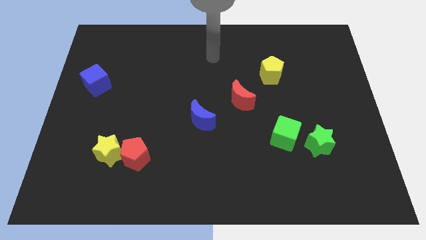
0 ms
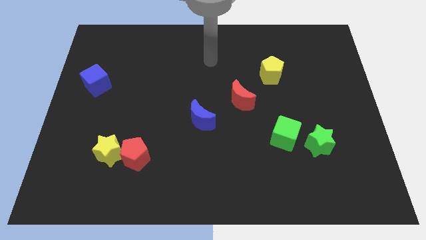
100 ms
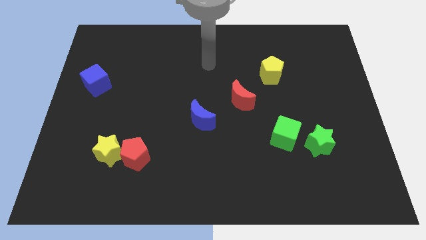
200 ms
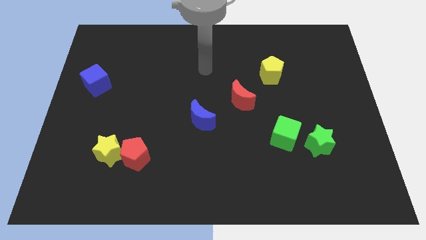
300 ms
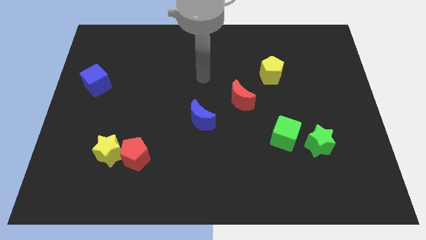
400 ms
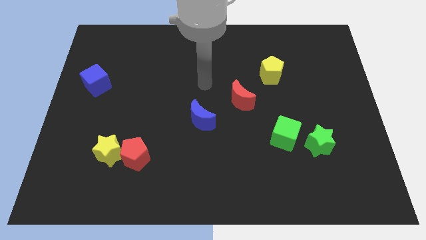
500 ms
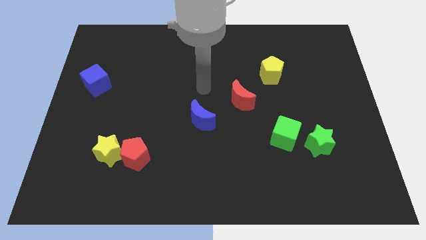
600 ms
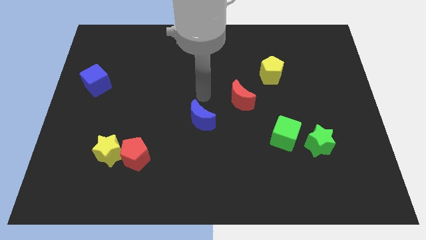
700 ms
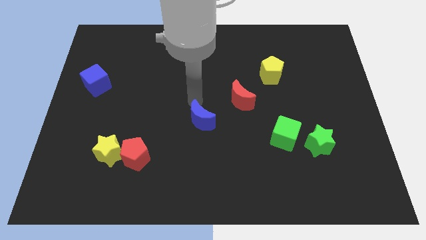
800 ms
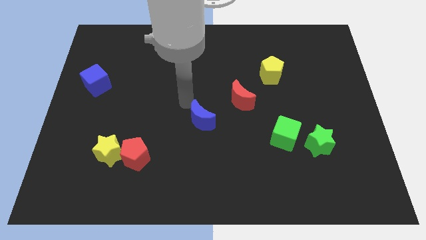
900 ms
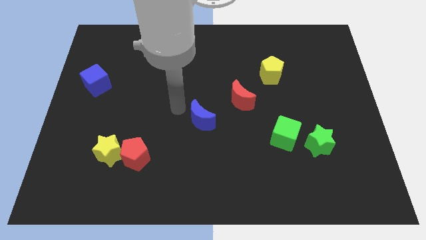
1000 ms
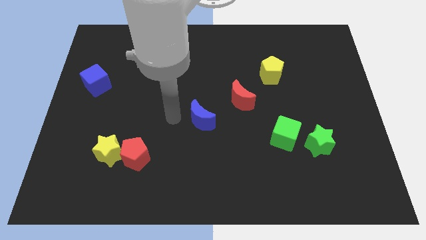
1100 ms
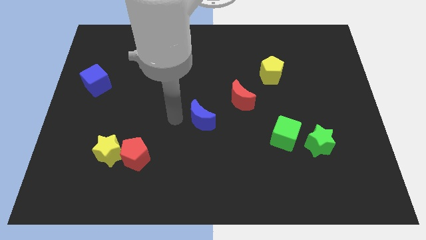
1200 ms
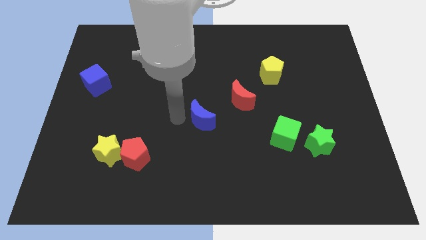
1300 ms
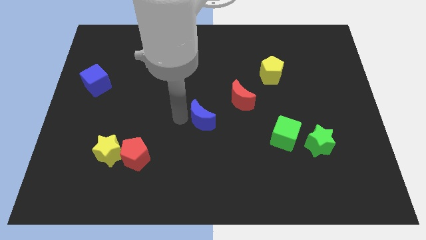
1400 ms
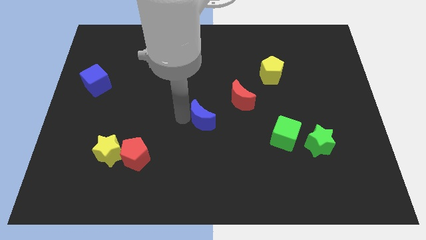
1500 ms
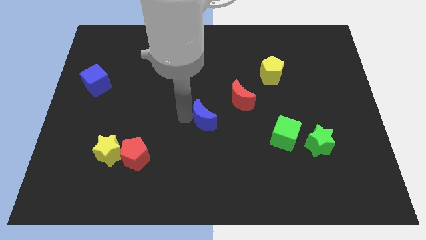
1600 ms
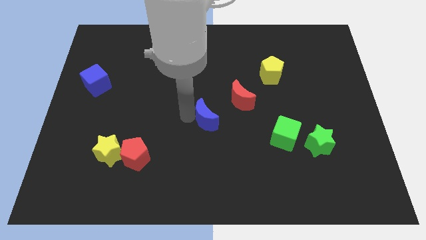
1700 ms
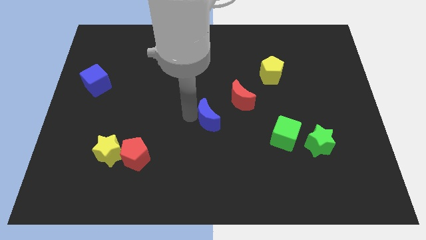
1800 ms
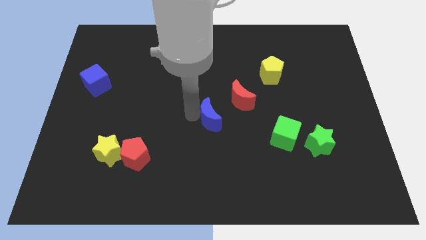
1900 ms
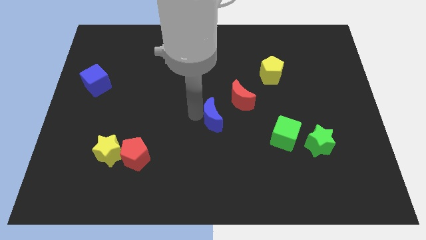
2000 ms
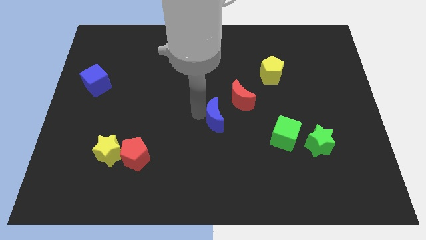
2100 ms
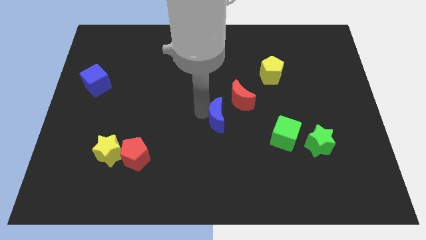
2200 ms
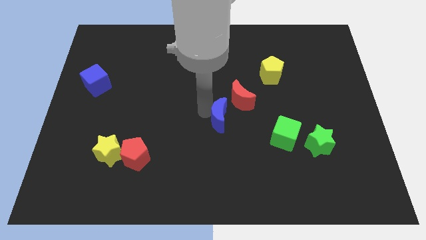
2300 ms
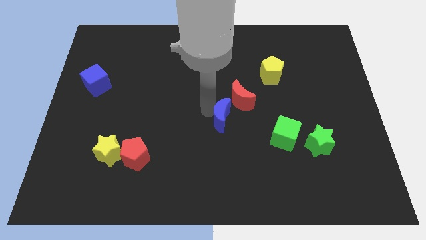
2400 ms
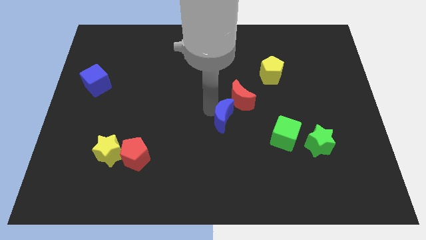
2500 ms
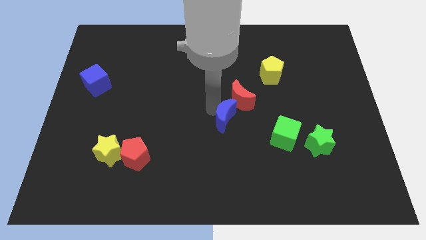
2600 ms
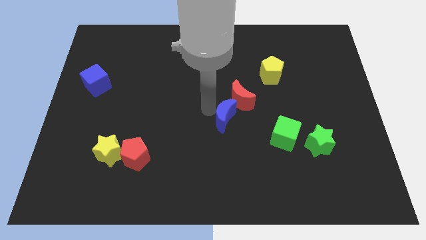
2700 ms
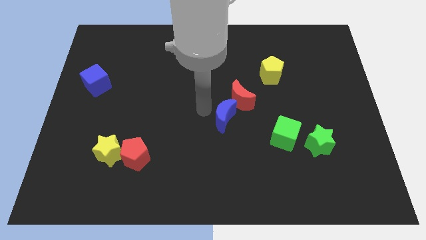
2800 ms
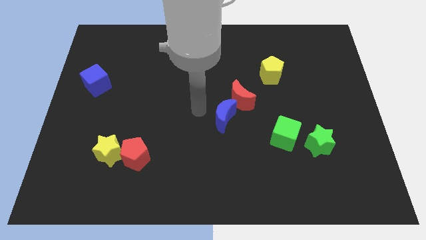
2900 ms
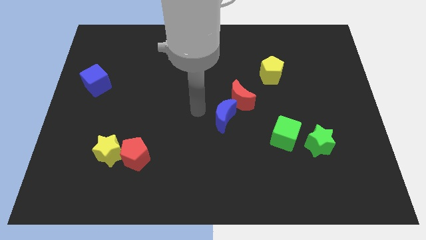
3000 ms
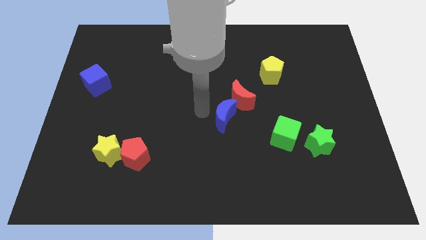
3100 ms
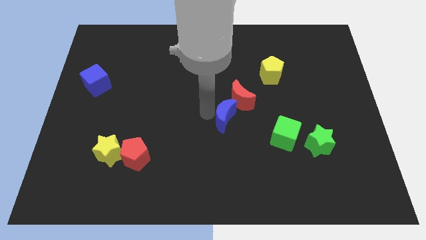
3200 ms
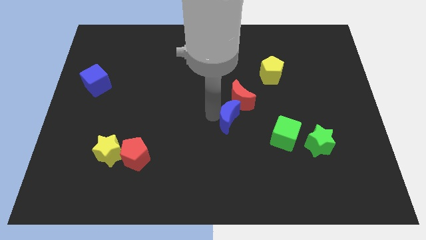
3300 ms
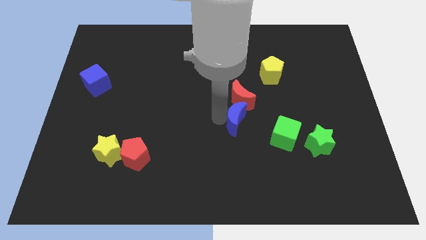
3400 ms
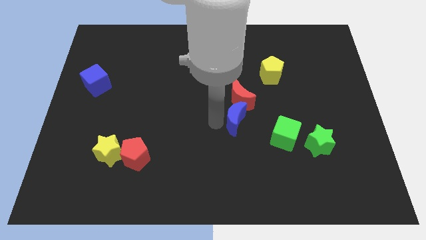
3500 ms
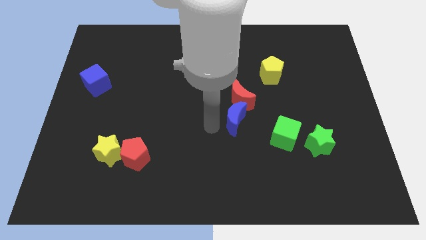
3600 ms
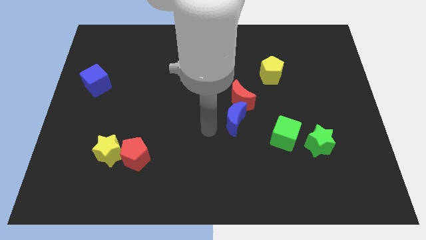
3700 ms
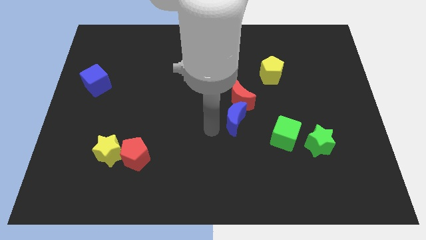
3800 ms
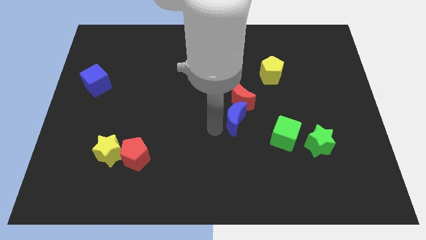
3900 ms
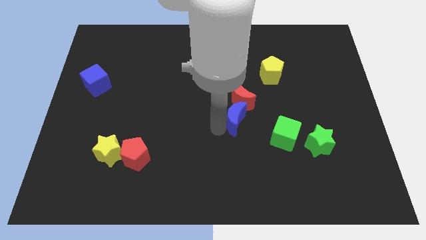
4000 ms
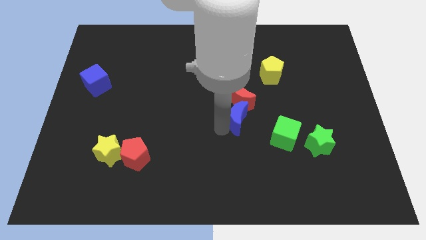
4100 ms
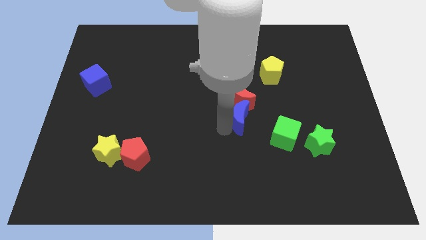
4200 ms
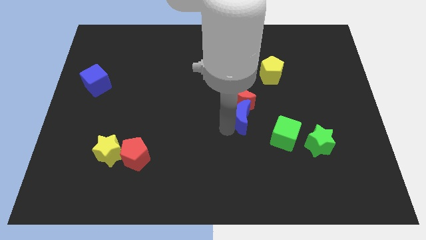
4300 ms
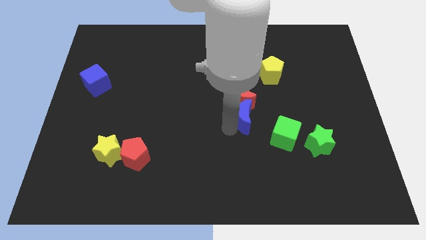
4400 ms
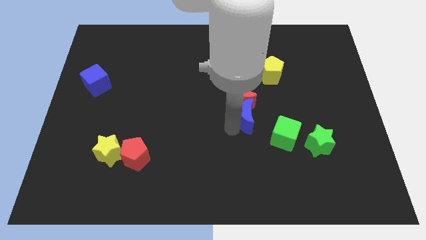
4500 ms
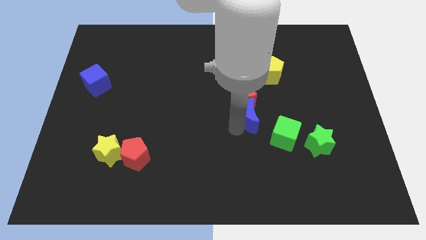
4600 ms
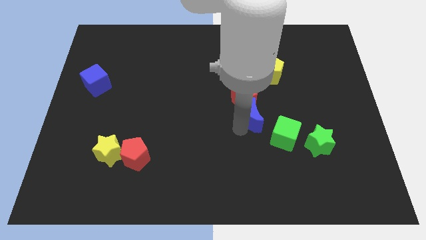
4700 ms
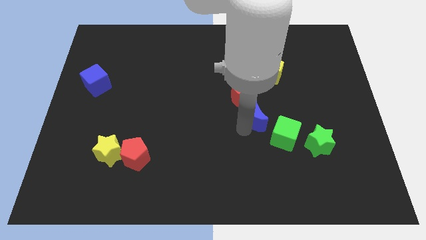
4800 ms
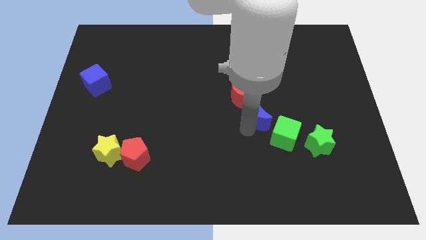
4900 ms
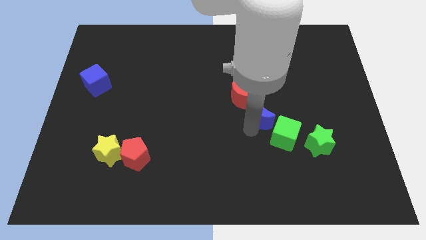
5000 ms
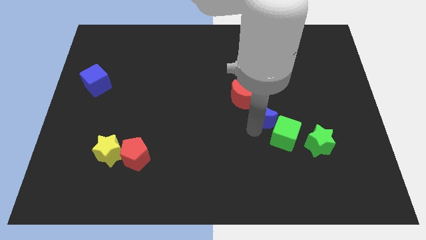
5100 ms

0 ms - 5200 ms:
put the blue moon to the top side of the green cube

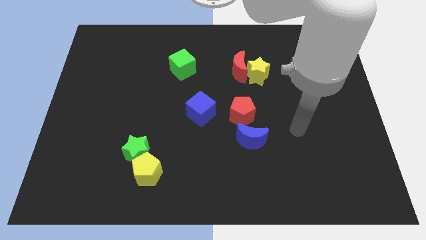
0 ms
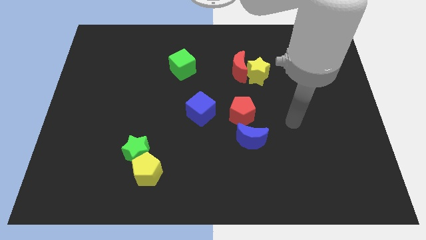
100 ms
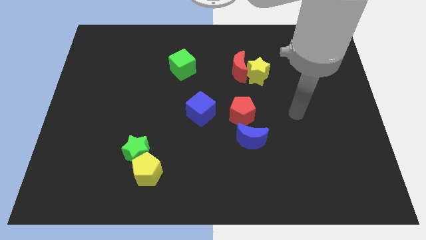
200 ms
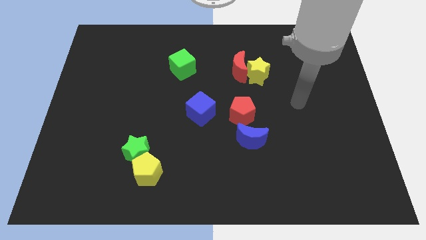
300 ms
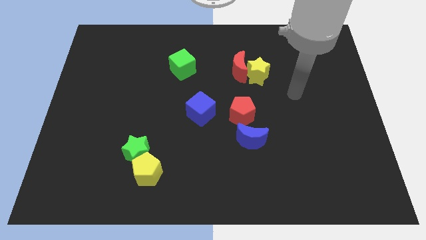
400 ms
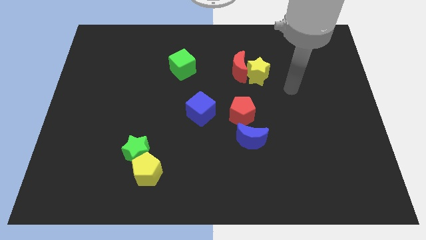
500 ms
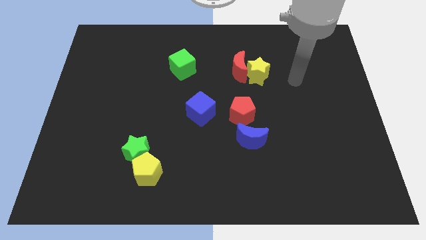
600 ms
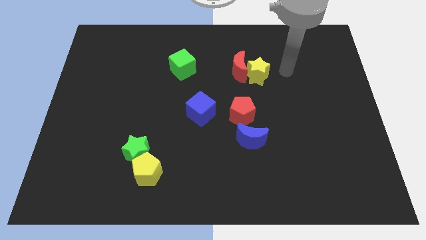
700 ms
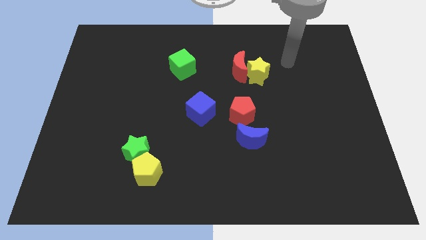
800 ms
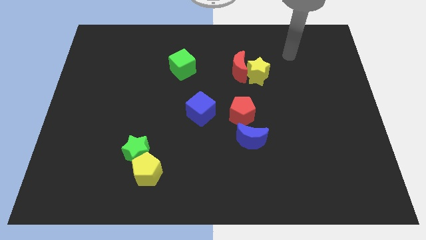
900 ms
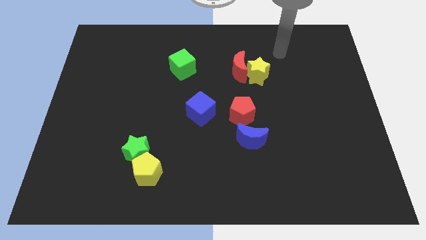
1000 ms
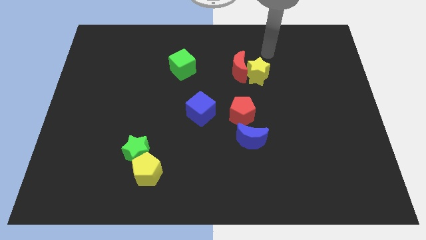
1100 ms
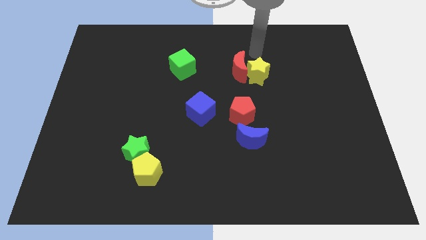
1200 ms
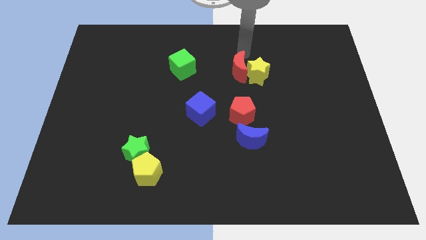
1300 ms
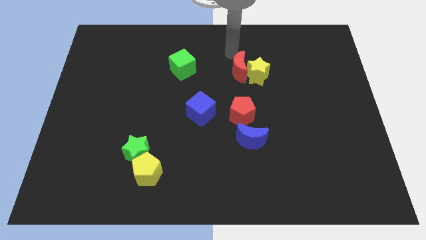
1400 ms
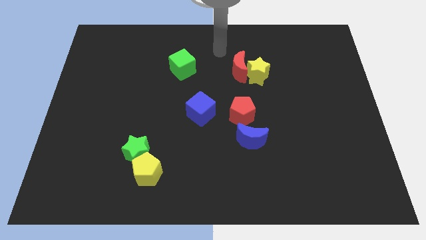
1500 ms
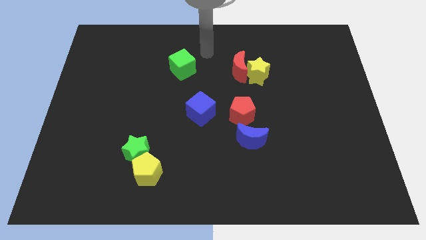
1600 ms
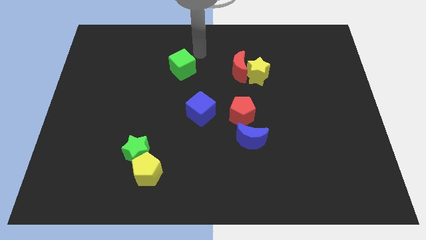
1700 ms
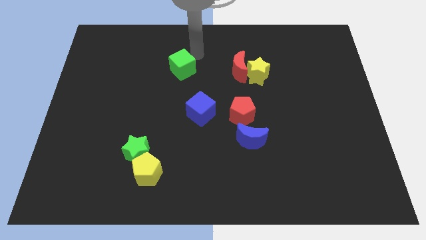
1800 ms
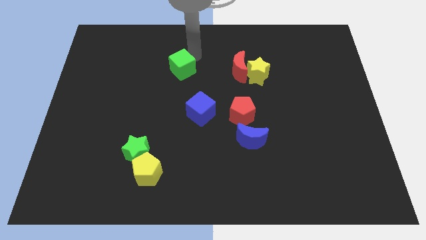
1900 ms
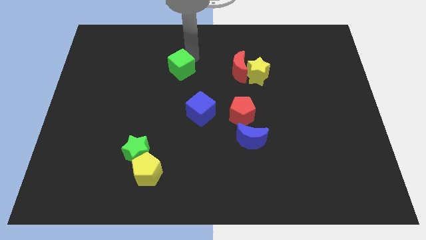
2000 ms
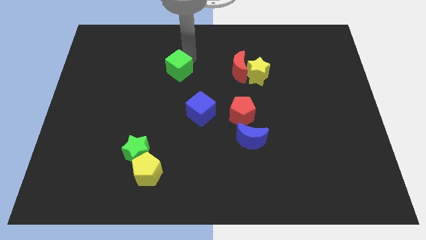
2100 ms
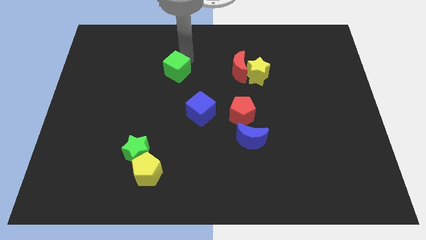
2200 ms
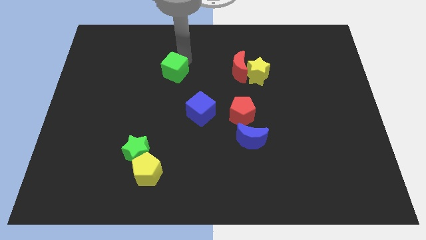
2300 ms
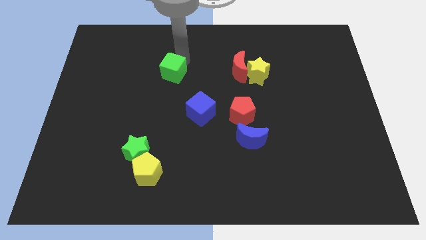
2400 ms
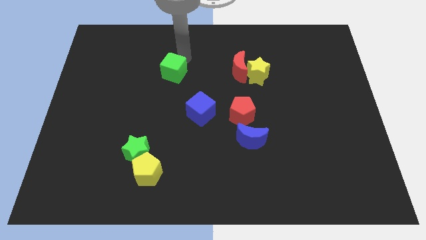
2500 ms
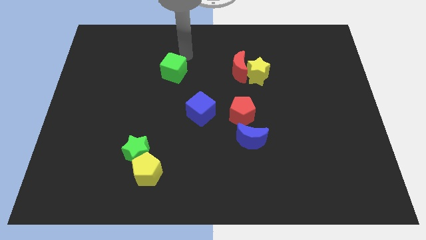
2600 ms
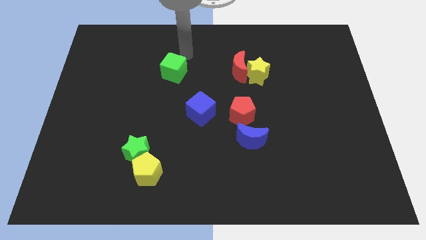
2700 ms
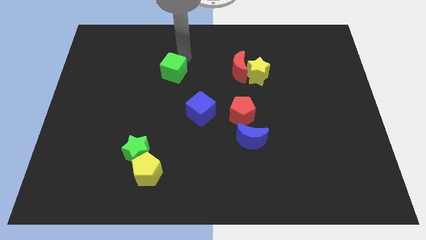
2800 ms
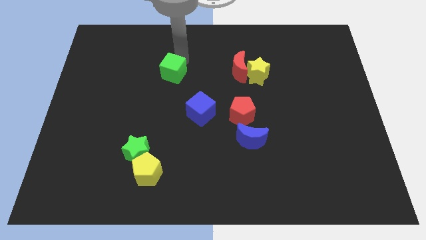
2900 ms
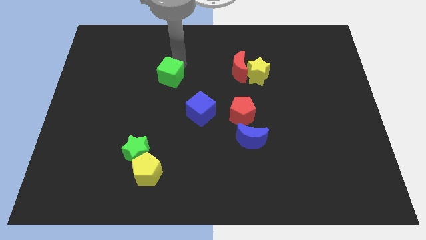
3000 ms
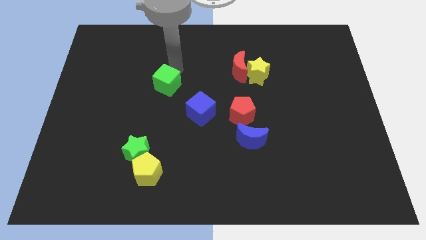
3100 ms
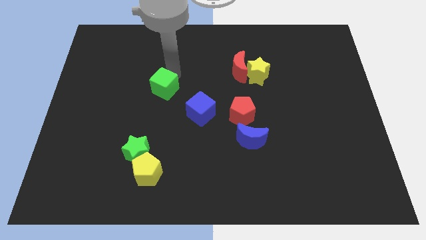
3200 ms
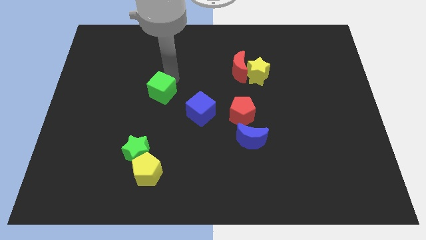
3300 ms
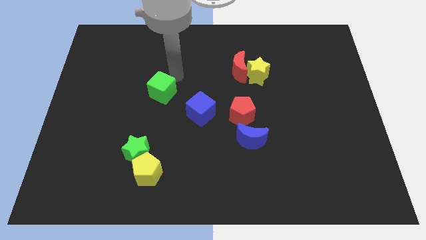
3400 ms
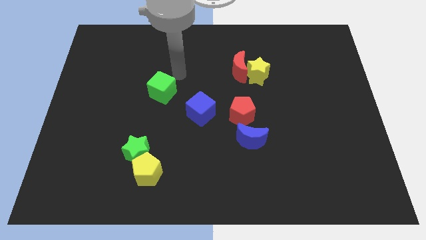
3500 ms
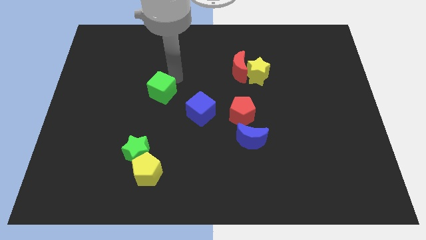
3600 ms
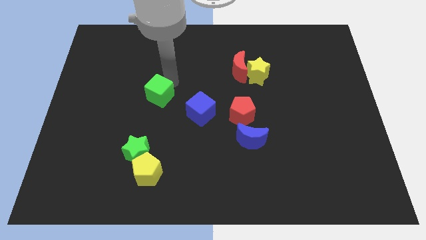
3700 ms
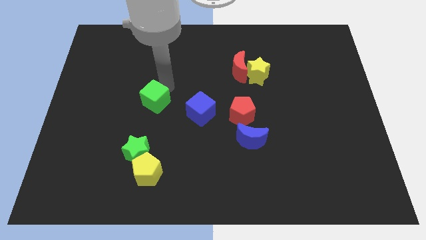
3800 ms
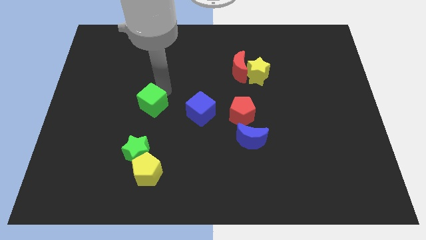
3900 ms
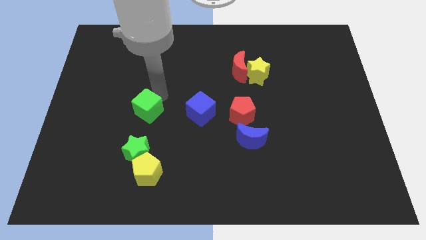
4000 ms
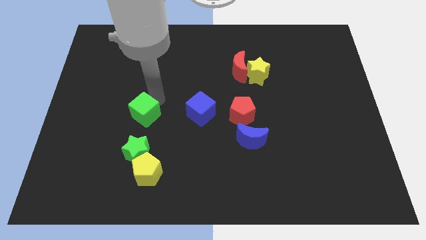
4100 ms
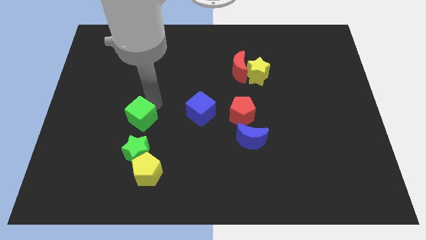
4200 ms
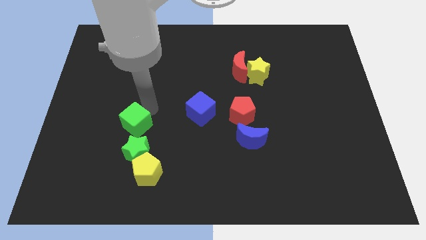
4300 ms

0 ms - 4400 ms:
put the green cube to the top left of the green star
